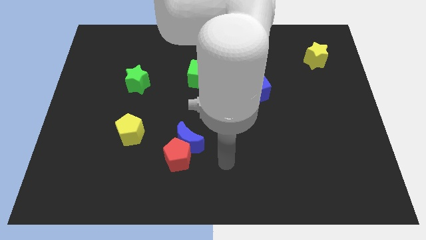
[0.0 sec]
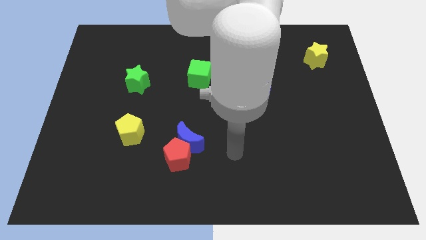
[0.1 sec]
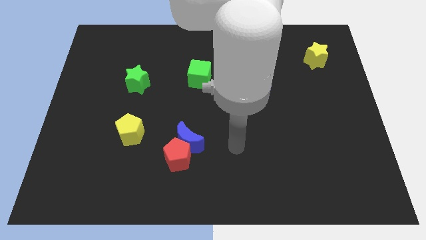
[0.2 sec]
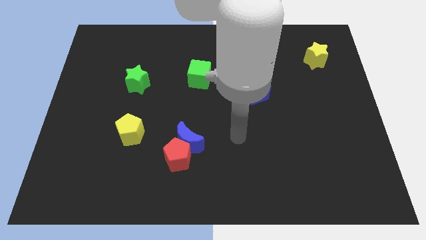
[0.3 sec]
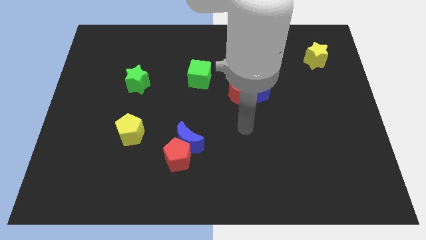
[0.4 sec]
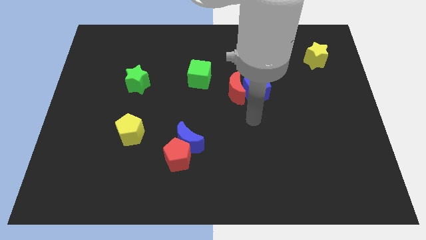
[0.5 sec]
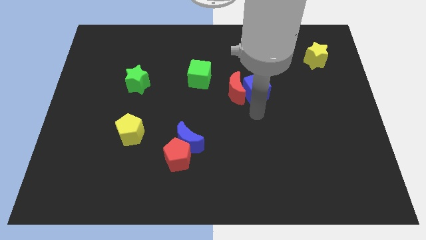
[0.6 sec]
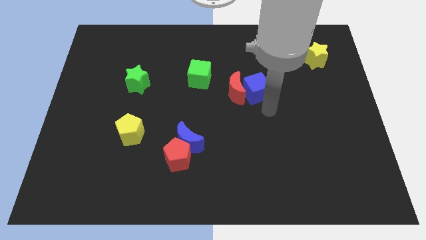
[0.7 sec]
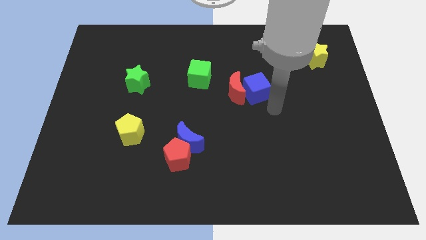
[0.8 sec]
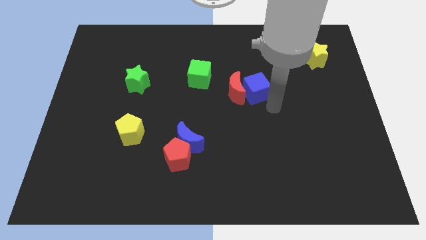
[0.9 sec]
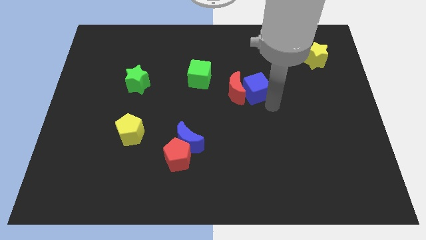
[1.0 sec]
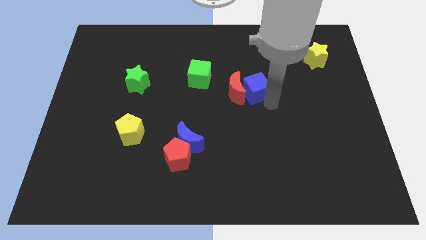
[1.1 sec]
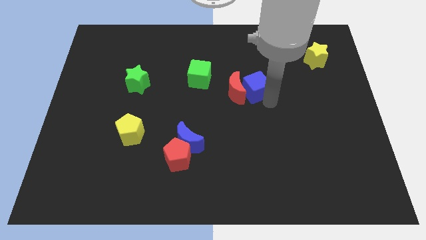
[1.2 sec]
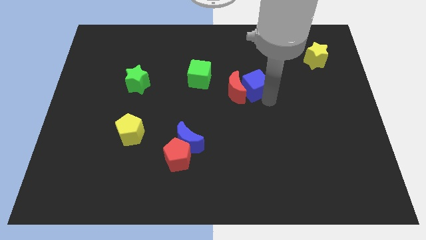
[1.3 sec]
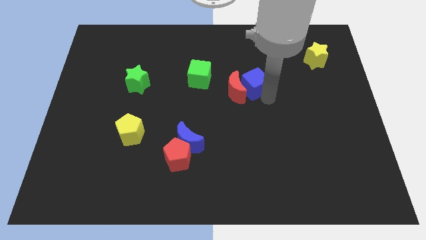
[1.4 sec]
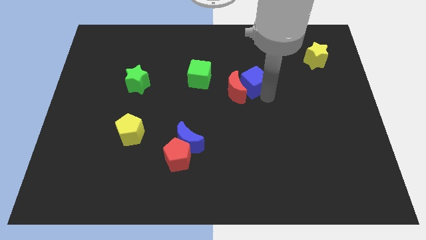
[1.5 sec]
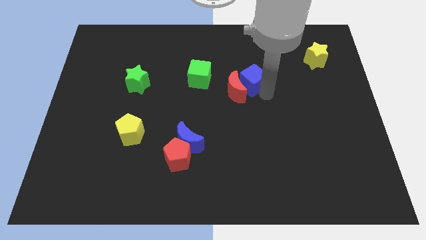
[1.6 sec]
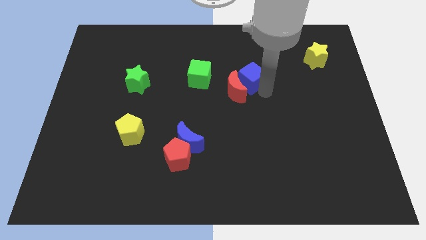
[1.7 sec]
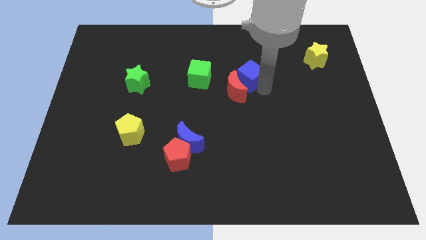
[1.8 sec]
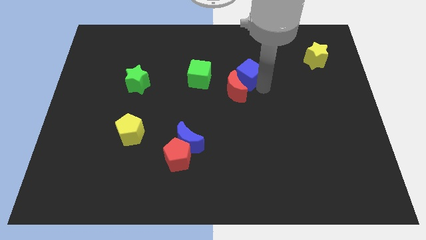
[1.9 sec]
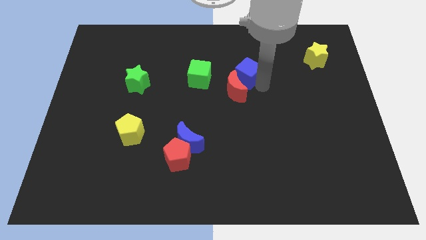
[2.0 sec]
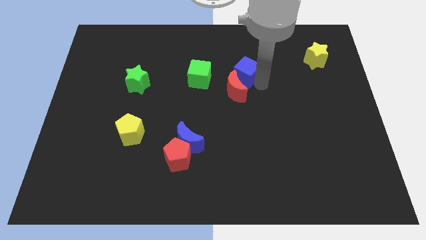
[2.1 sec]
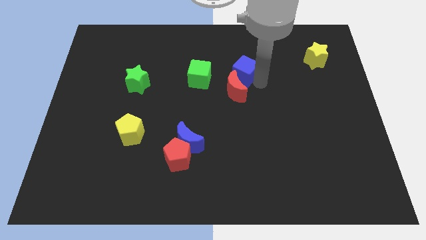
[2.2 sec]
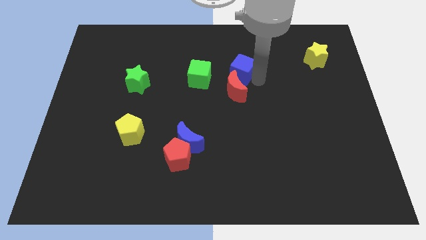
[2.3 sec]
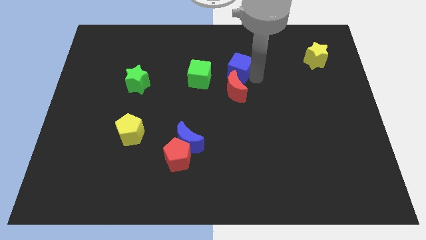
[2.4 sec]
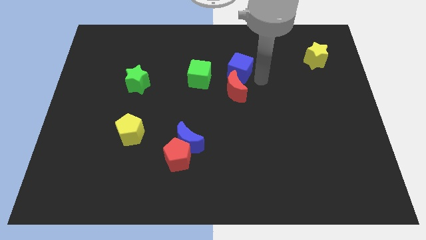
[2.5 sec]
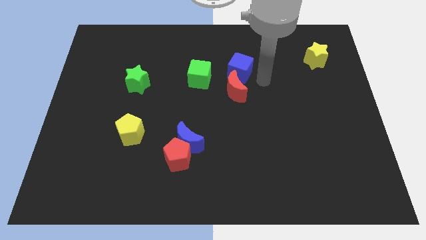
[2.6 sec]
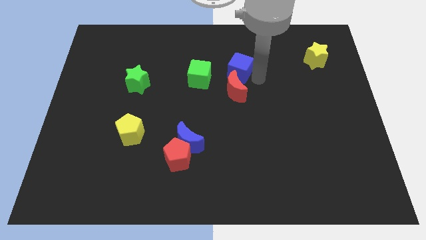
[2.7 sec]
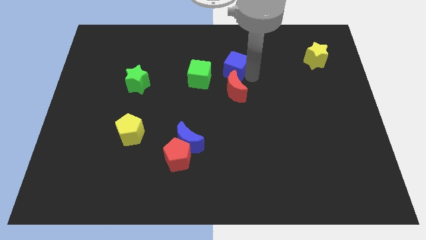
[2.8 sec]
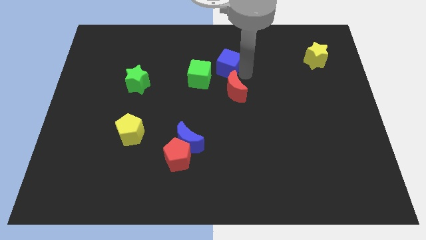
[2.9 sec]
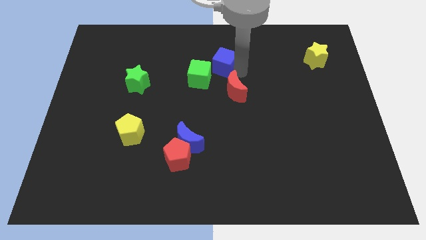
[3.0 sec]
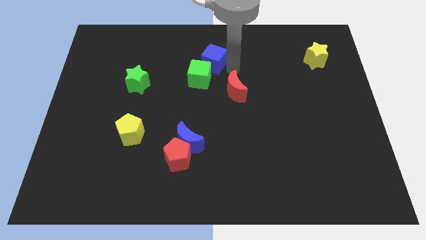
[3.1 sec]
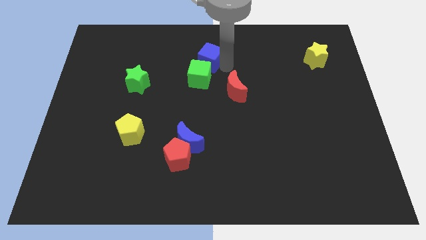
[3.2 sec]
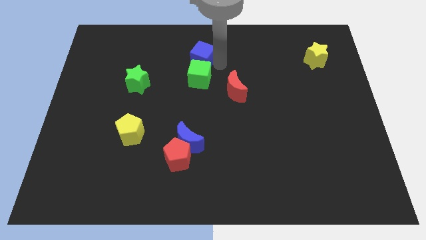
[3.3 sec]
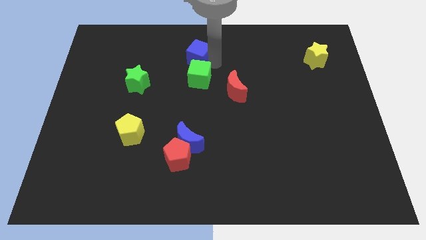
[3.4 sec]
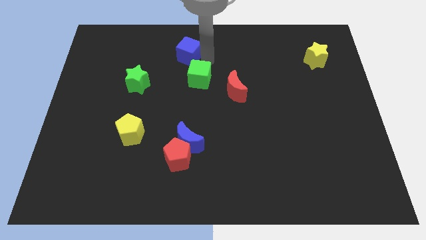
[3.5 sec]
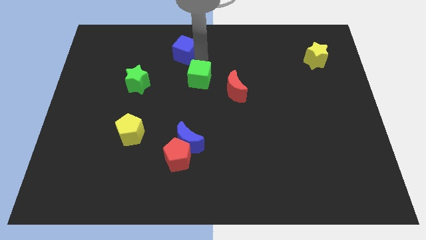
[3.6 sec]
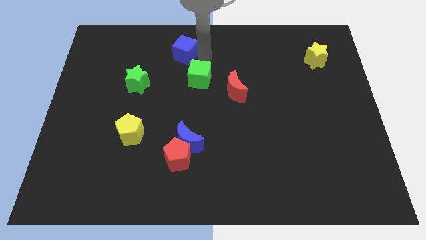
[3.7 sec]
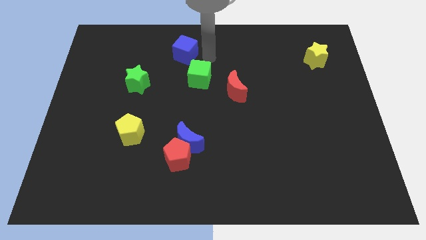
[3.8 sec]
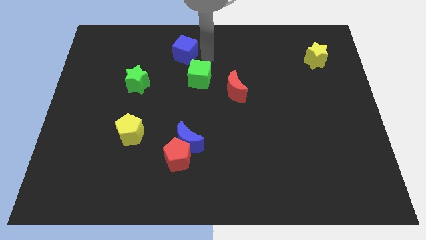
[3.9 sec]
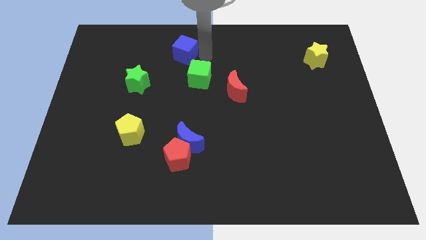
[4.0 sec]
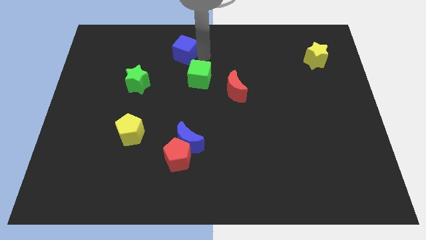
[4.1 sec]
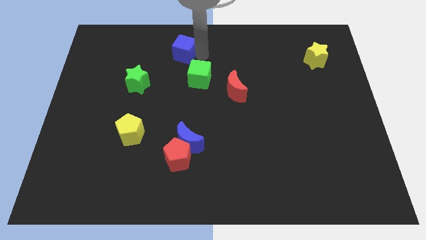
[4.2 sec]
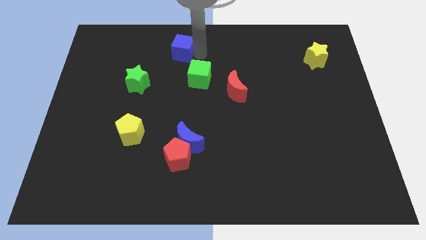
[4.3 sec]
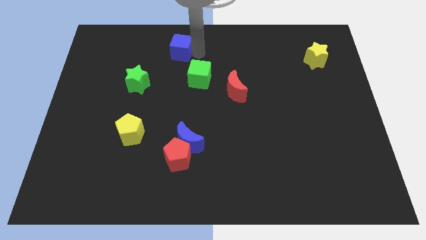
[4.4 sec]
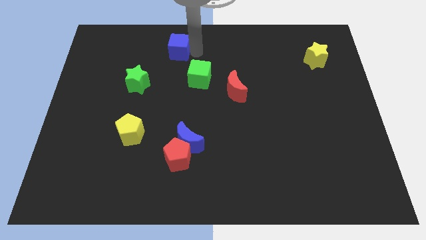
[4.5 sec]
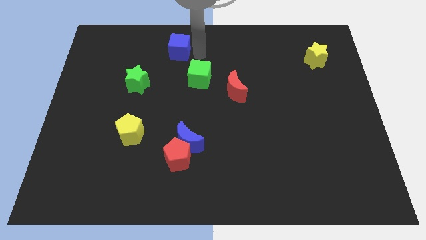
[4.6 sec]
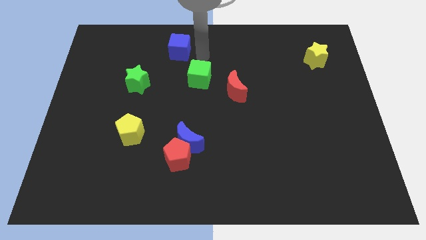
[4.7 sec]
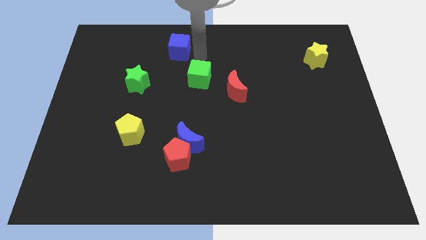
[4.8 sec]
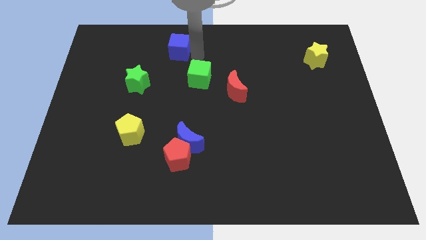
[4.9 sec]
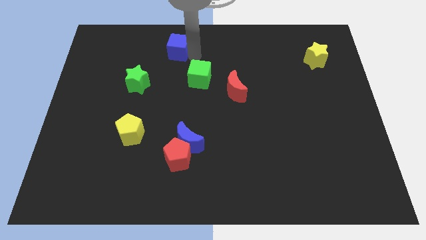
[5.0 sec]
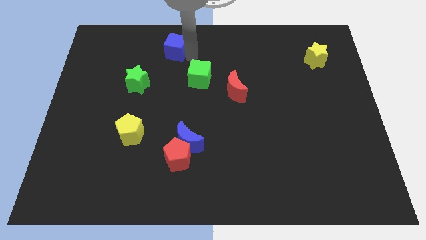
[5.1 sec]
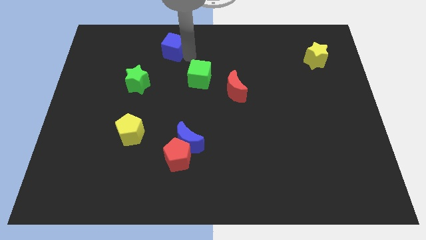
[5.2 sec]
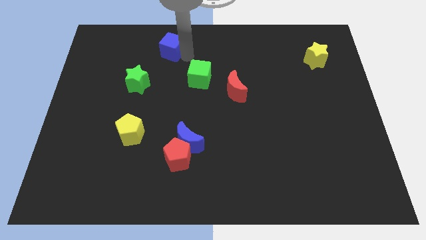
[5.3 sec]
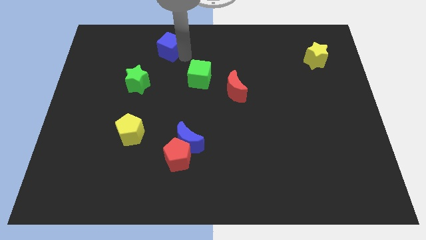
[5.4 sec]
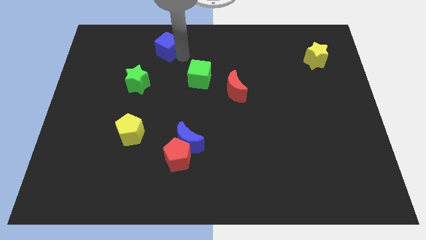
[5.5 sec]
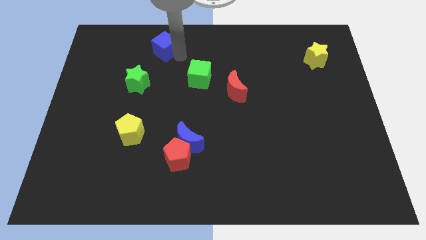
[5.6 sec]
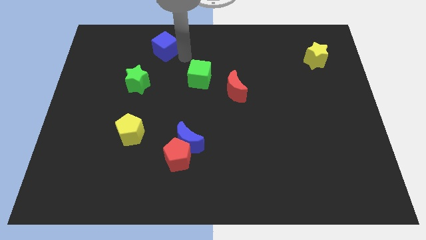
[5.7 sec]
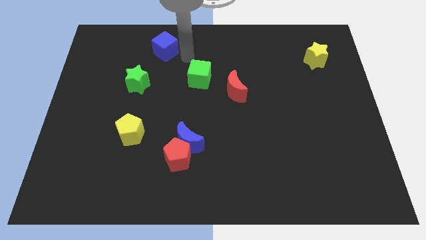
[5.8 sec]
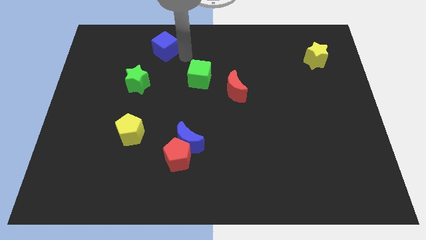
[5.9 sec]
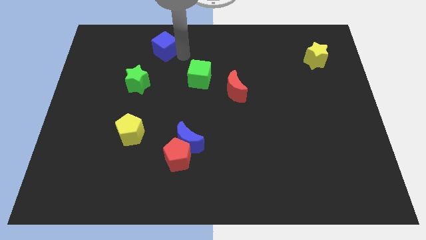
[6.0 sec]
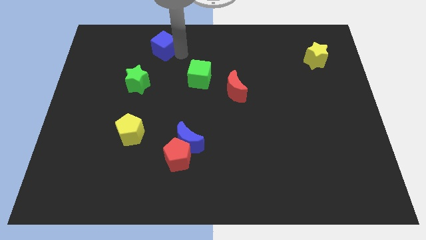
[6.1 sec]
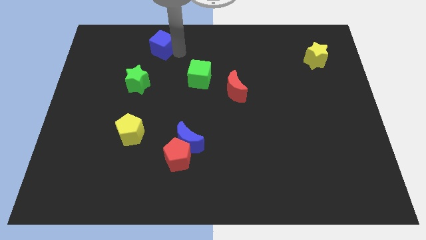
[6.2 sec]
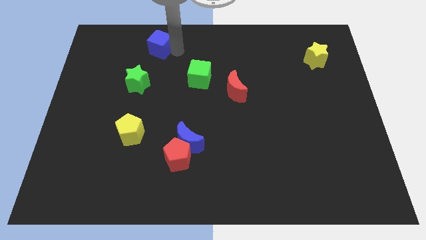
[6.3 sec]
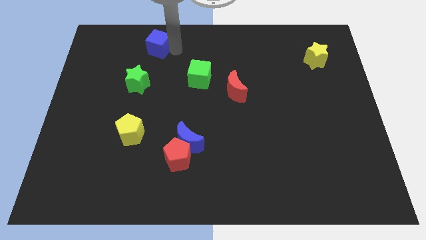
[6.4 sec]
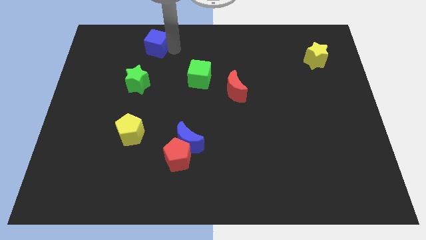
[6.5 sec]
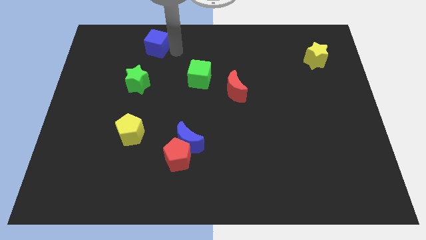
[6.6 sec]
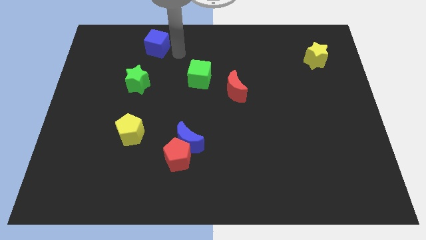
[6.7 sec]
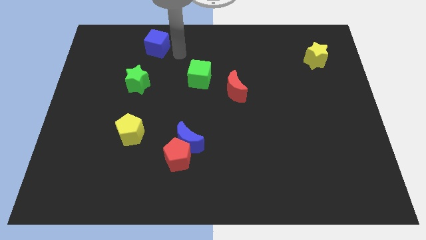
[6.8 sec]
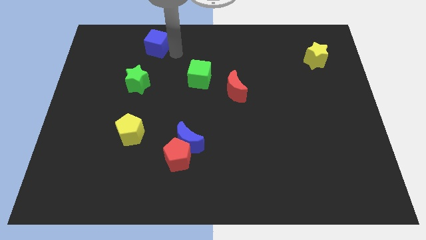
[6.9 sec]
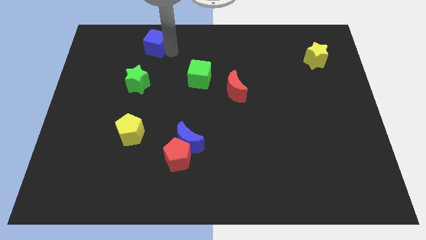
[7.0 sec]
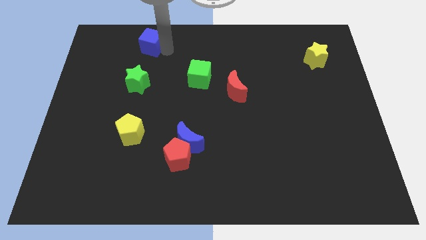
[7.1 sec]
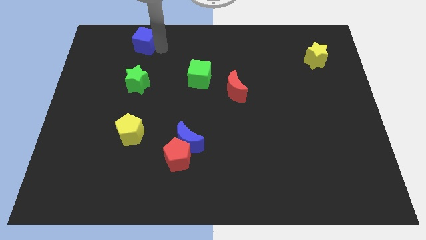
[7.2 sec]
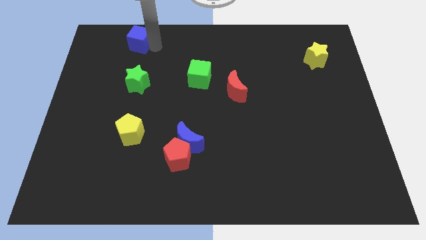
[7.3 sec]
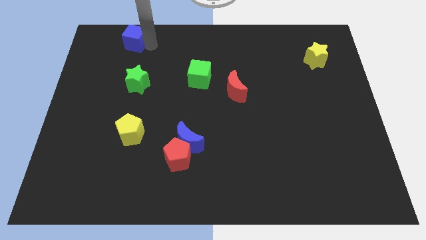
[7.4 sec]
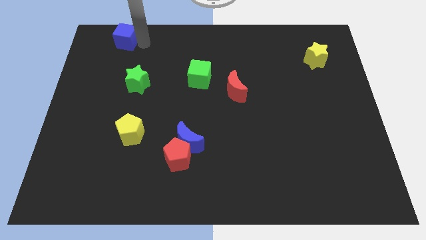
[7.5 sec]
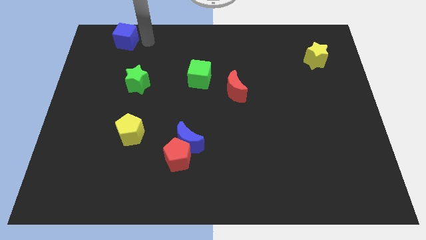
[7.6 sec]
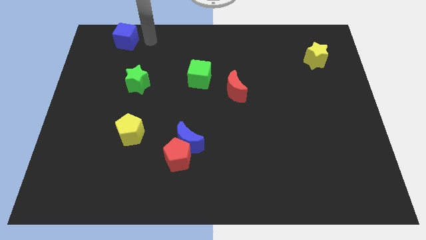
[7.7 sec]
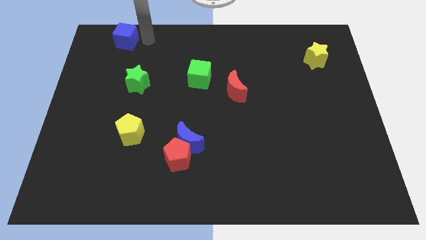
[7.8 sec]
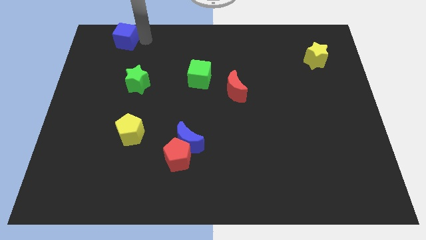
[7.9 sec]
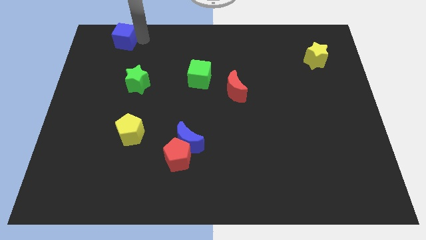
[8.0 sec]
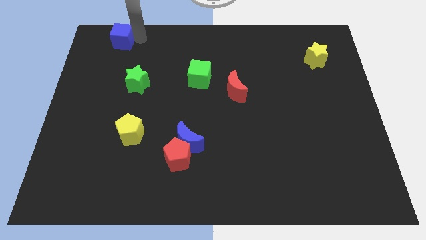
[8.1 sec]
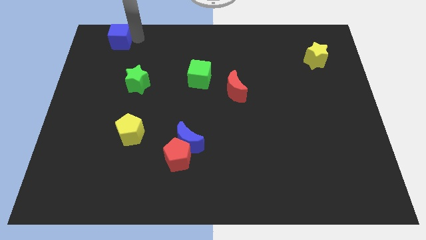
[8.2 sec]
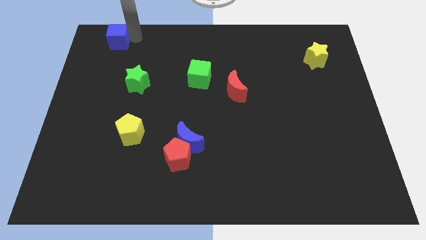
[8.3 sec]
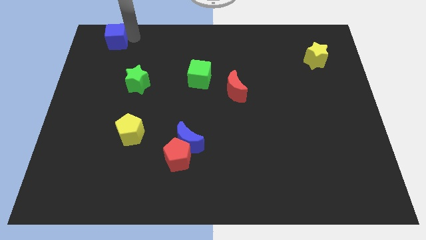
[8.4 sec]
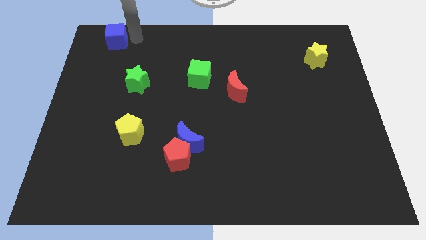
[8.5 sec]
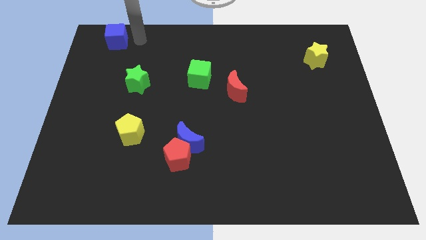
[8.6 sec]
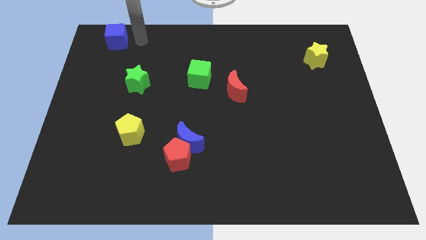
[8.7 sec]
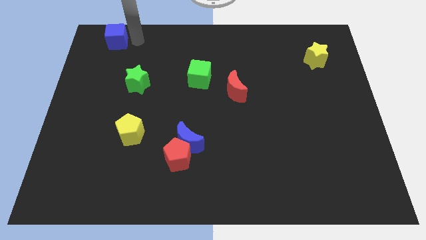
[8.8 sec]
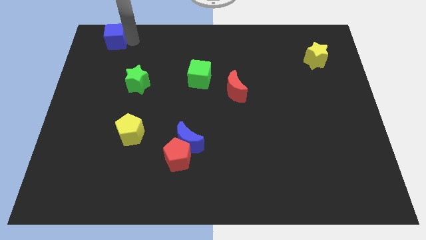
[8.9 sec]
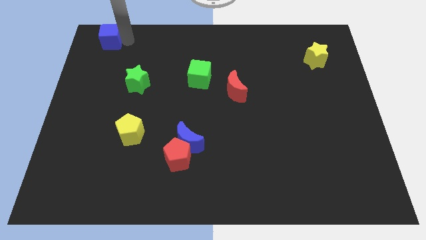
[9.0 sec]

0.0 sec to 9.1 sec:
put the blue cube to the top left
